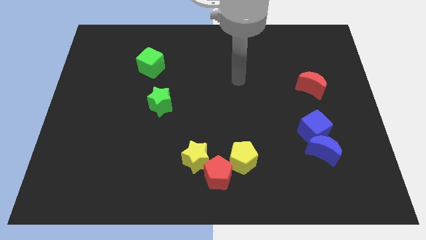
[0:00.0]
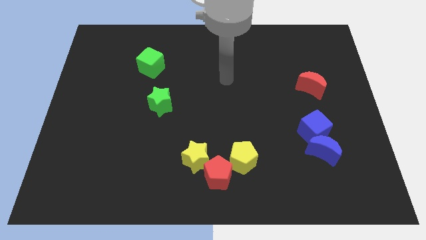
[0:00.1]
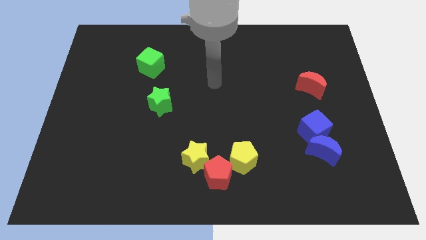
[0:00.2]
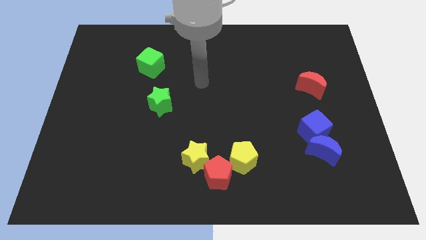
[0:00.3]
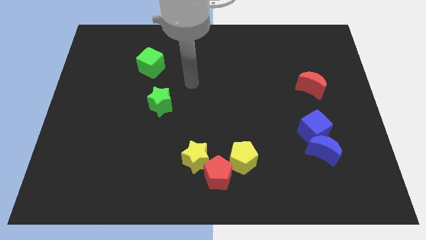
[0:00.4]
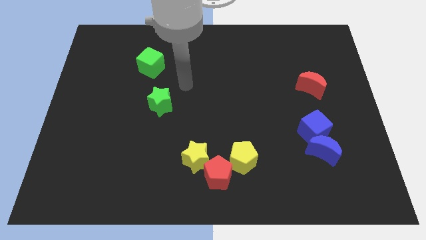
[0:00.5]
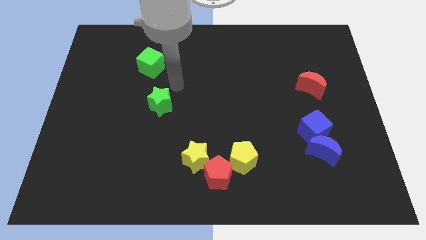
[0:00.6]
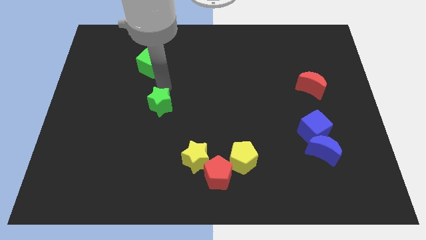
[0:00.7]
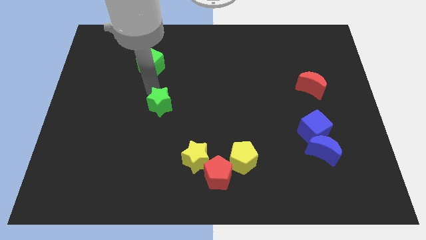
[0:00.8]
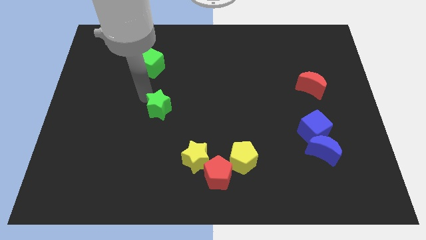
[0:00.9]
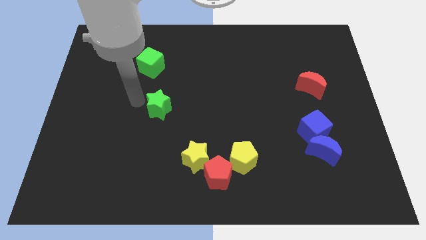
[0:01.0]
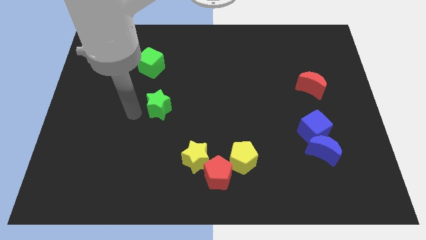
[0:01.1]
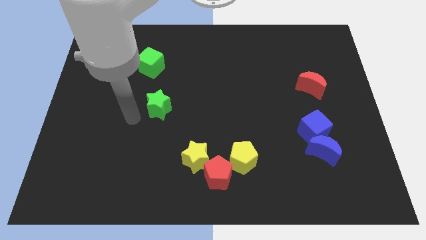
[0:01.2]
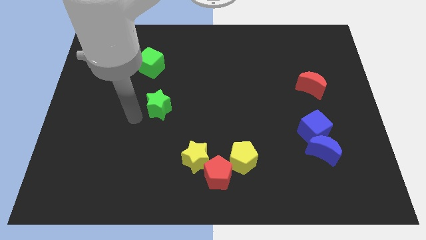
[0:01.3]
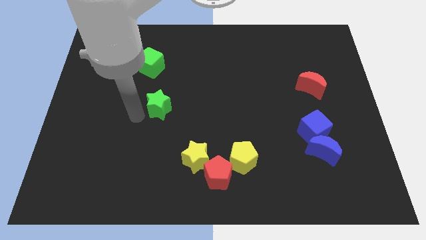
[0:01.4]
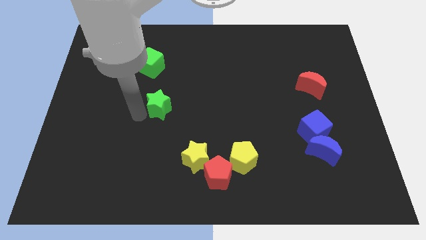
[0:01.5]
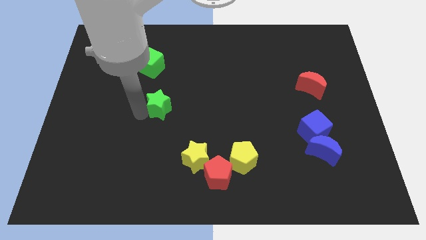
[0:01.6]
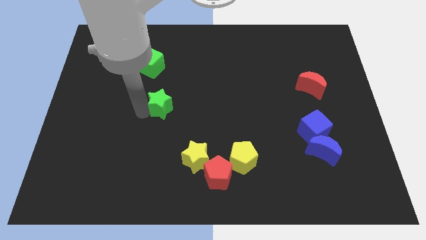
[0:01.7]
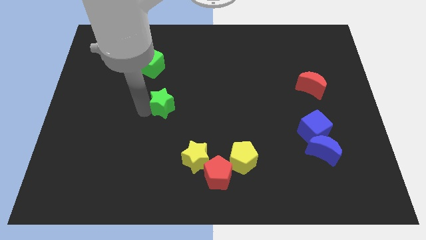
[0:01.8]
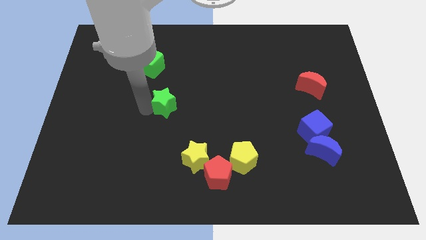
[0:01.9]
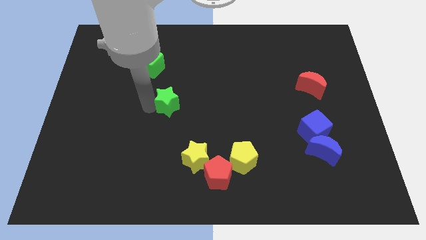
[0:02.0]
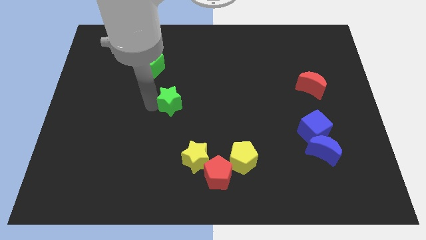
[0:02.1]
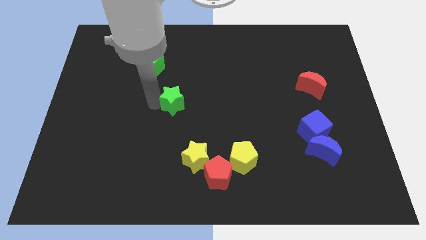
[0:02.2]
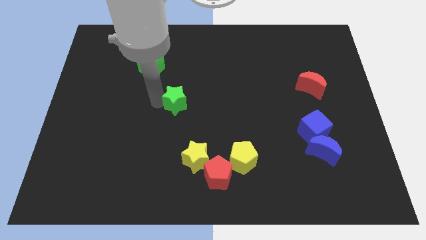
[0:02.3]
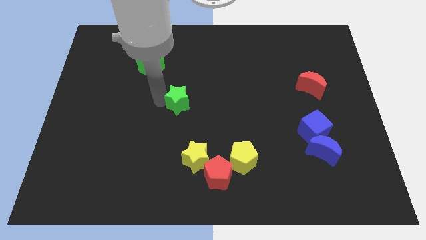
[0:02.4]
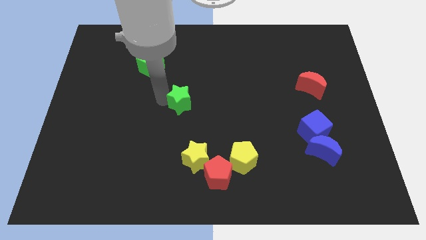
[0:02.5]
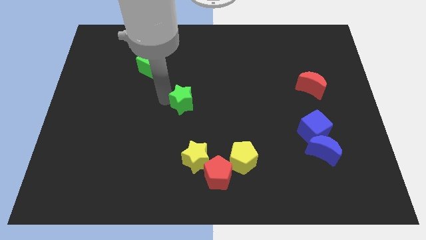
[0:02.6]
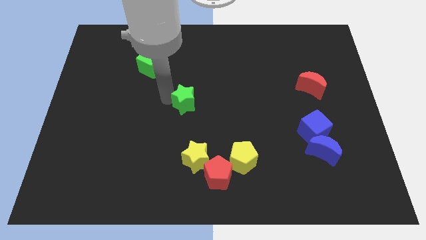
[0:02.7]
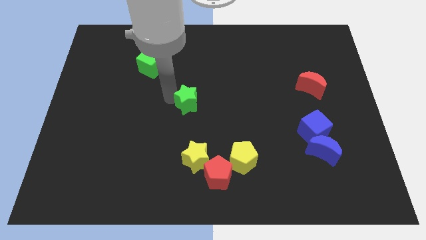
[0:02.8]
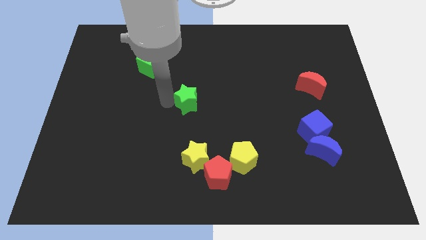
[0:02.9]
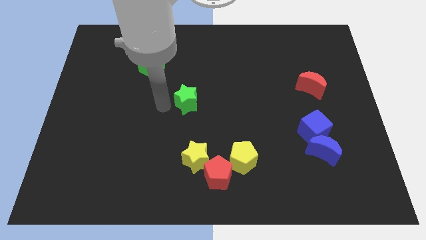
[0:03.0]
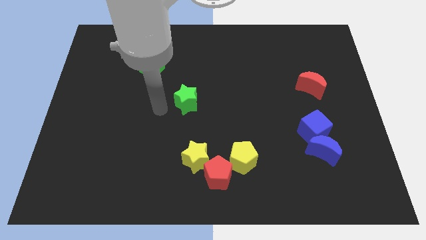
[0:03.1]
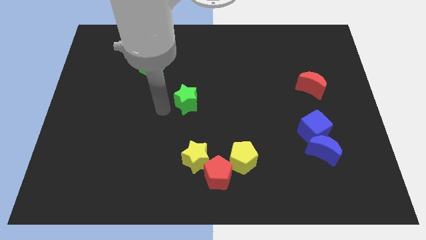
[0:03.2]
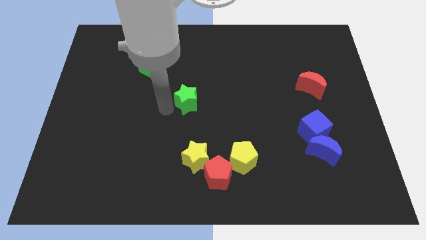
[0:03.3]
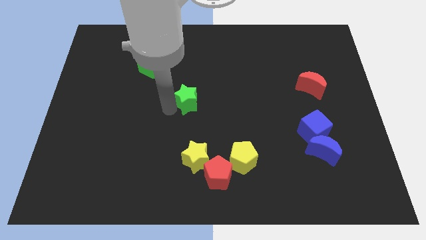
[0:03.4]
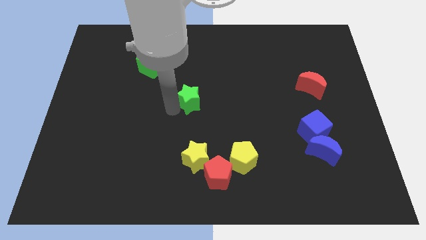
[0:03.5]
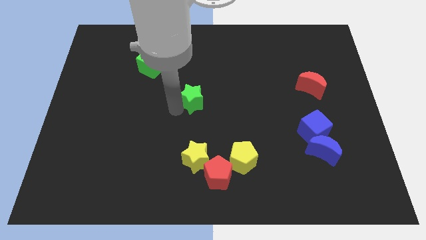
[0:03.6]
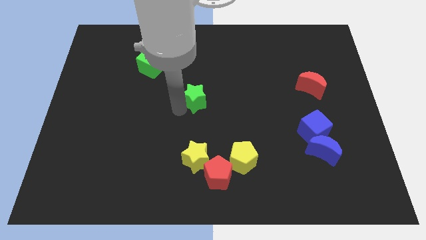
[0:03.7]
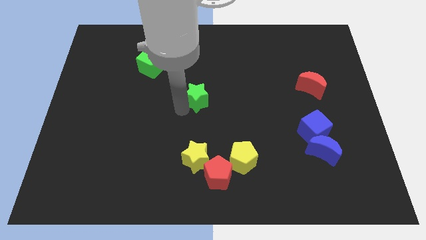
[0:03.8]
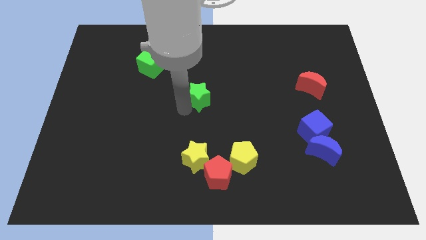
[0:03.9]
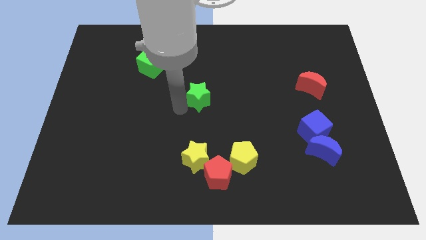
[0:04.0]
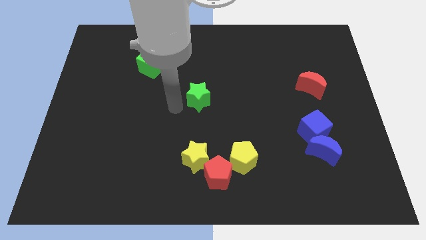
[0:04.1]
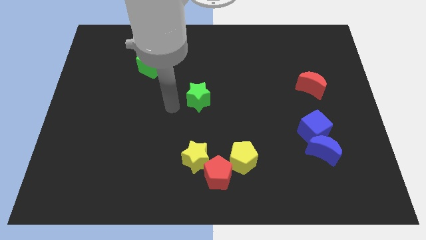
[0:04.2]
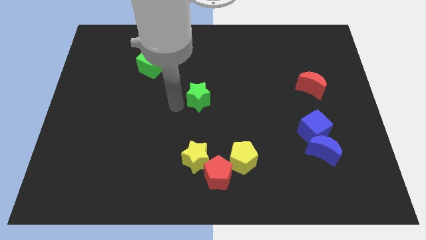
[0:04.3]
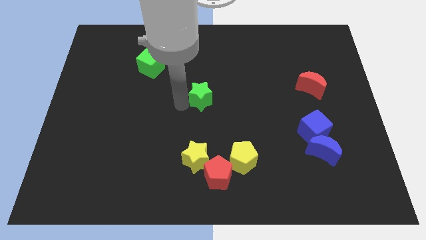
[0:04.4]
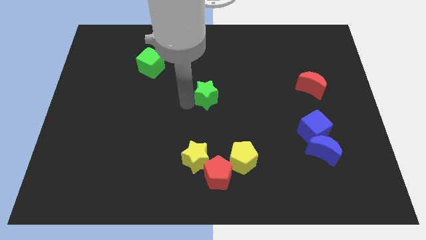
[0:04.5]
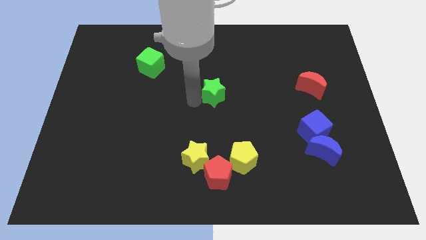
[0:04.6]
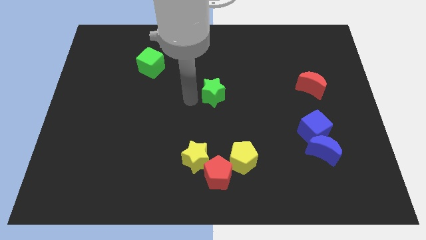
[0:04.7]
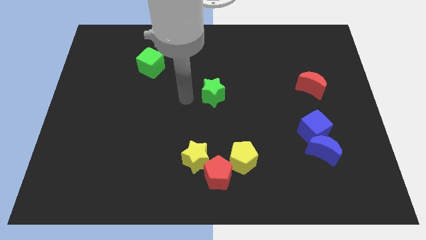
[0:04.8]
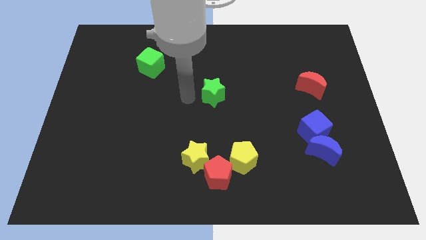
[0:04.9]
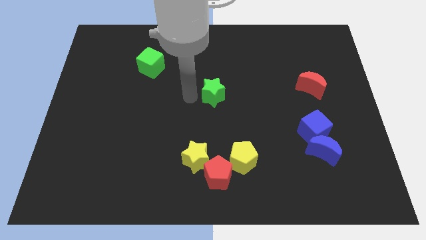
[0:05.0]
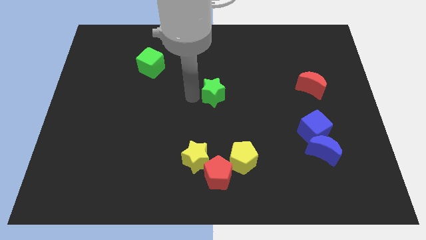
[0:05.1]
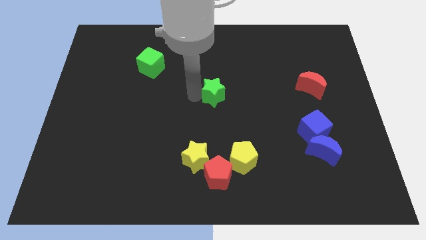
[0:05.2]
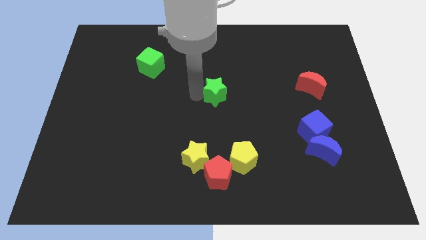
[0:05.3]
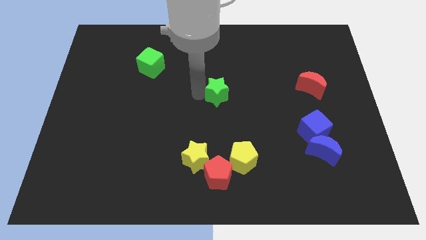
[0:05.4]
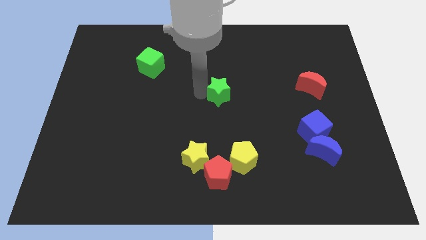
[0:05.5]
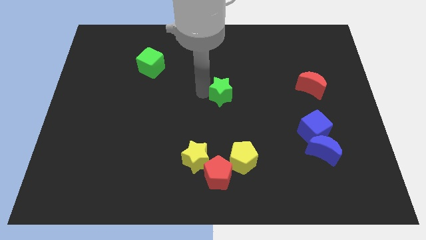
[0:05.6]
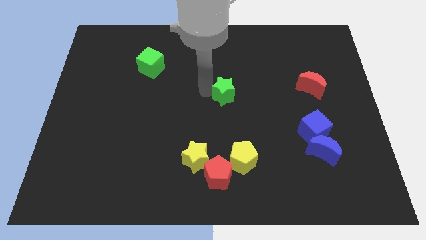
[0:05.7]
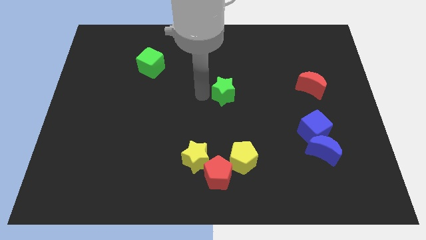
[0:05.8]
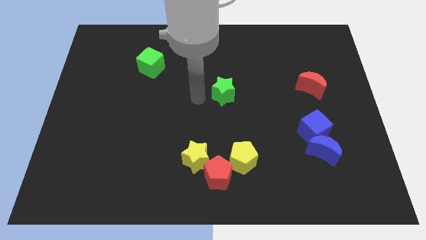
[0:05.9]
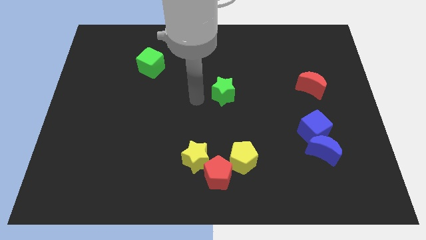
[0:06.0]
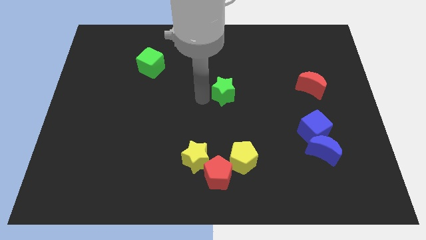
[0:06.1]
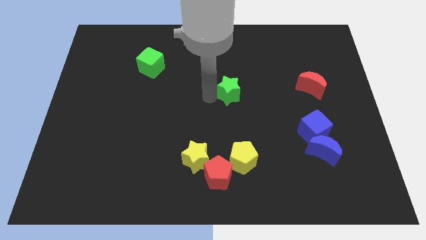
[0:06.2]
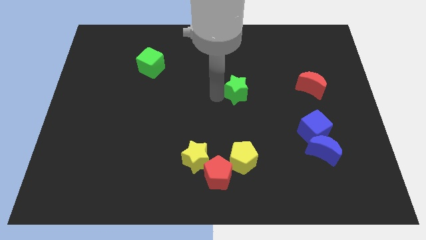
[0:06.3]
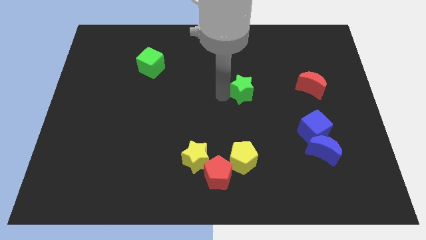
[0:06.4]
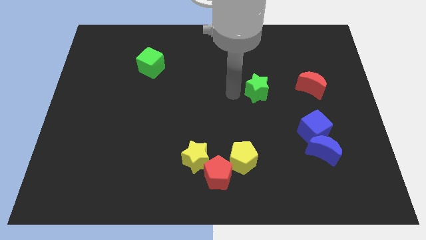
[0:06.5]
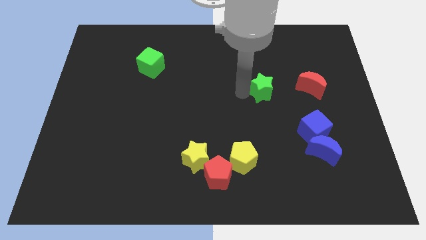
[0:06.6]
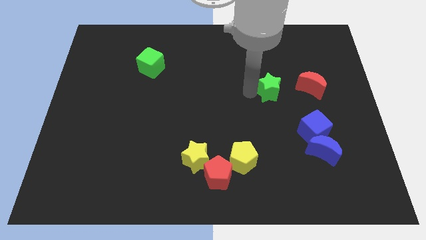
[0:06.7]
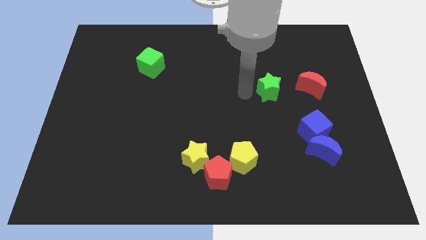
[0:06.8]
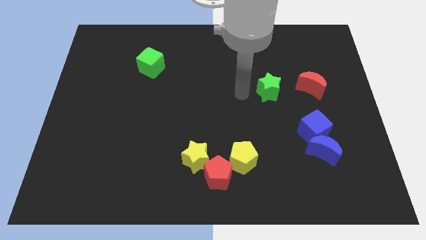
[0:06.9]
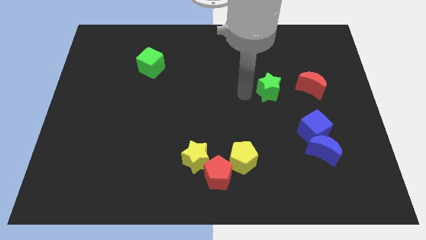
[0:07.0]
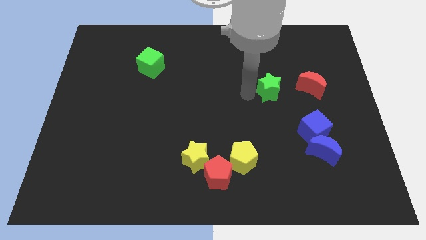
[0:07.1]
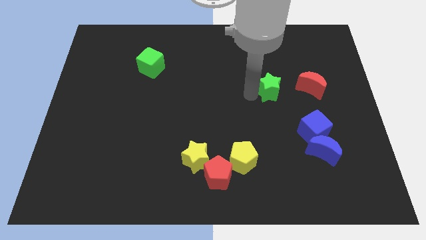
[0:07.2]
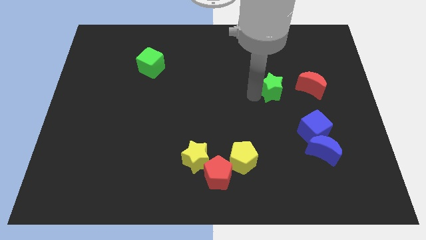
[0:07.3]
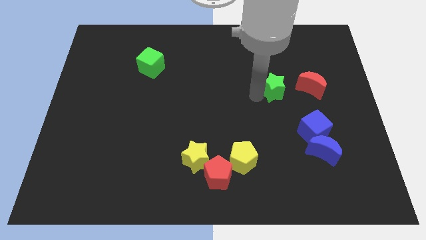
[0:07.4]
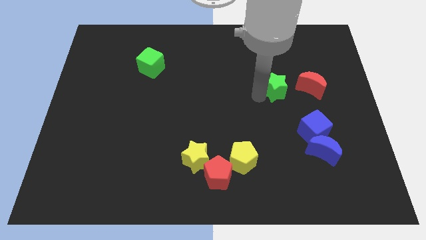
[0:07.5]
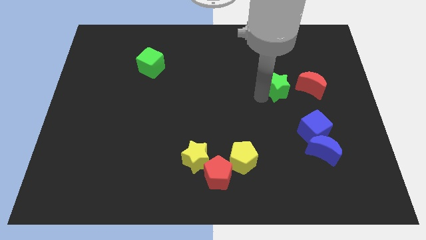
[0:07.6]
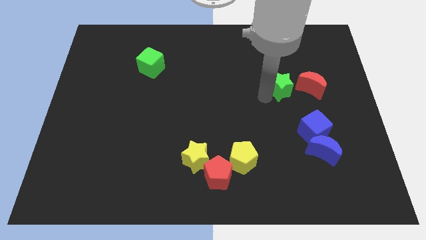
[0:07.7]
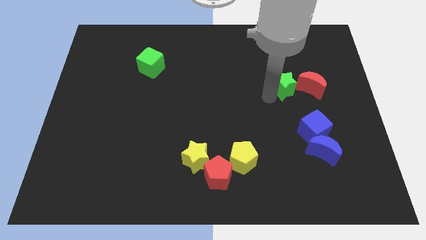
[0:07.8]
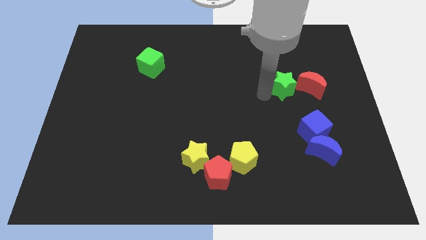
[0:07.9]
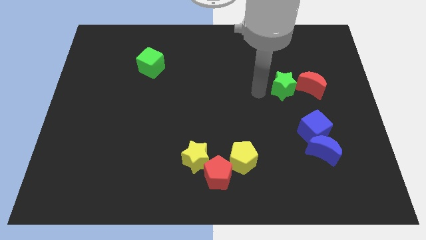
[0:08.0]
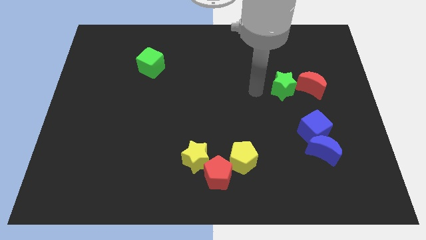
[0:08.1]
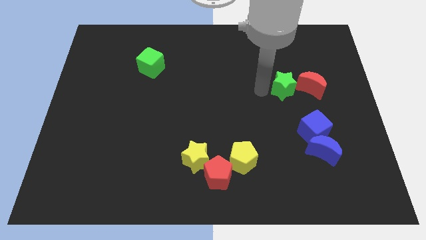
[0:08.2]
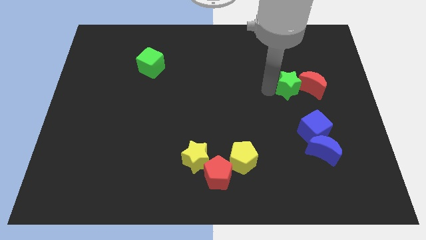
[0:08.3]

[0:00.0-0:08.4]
slide the green star towards the red moon
